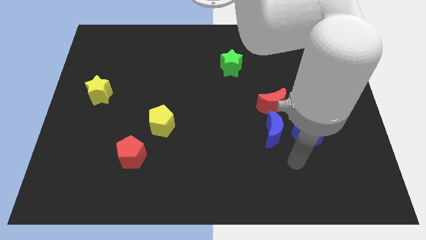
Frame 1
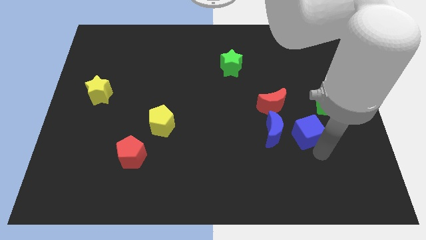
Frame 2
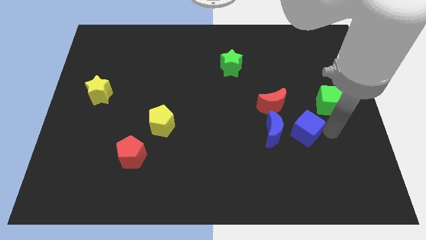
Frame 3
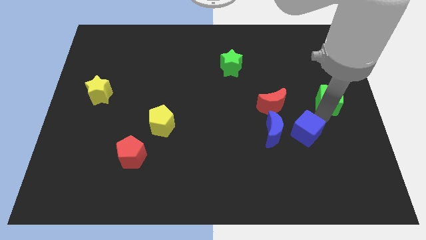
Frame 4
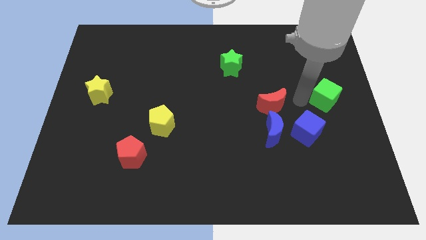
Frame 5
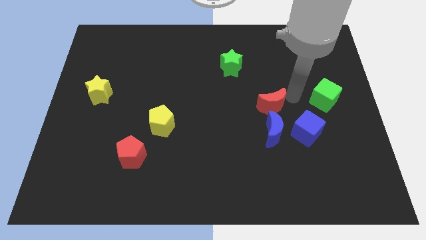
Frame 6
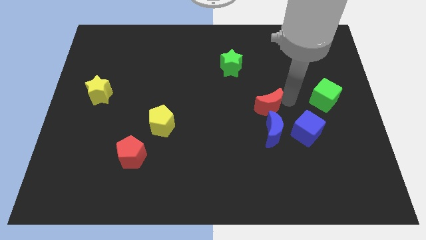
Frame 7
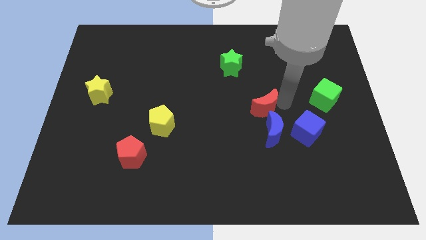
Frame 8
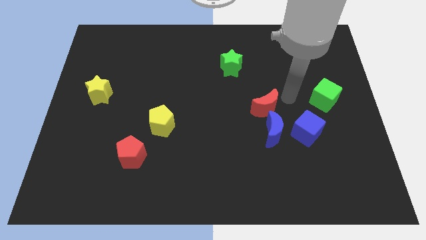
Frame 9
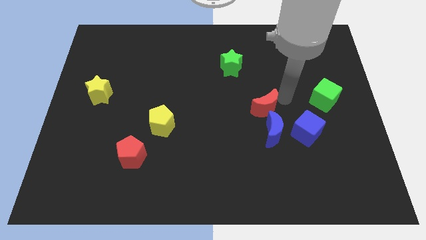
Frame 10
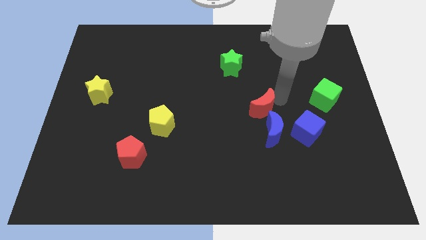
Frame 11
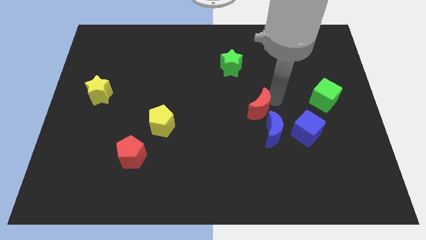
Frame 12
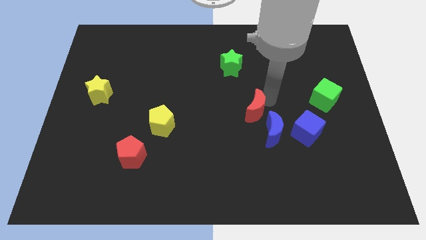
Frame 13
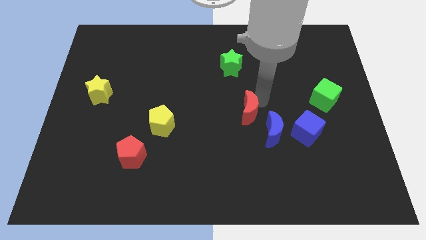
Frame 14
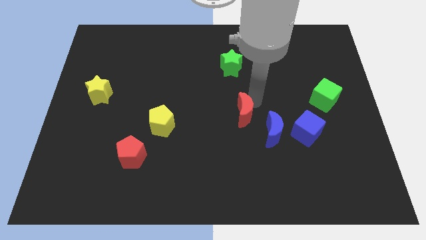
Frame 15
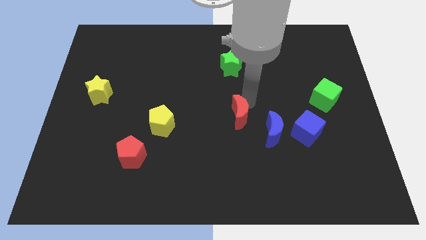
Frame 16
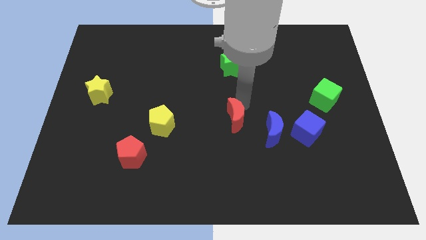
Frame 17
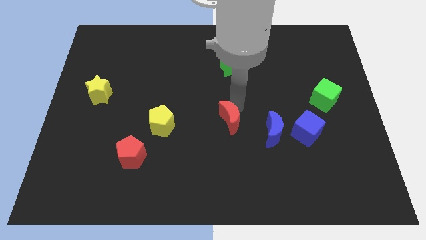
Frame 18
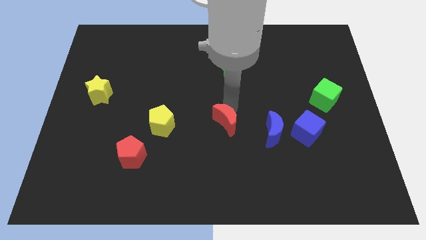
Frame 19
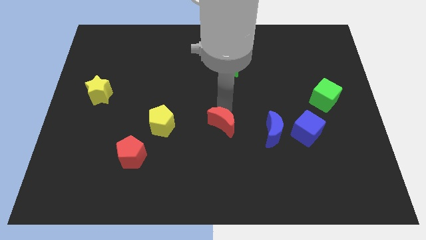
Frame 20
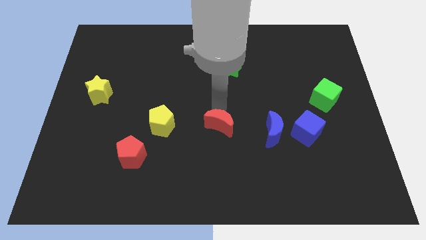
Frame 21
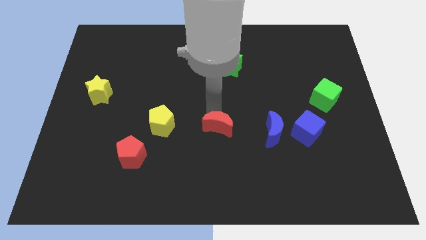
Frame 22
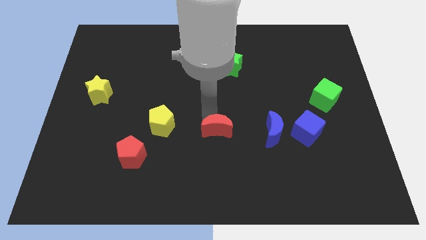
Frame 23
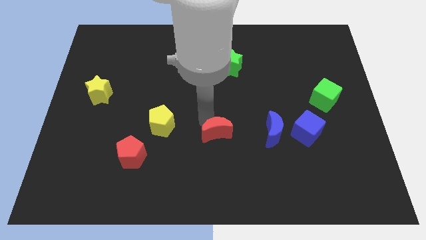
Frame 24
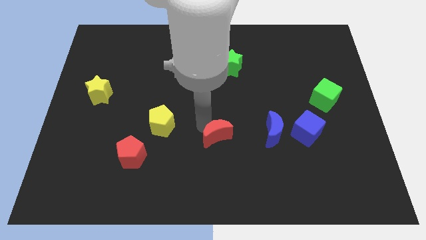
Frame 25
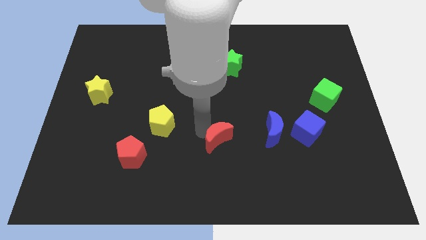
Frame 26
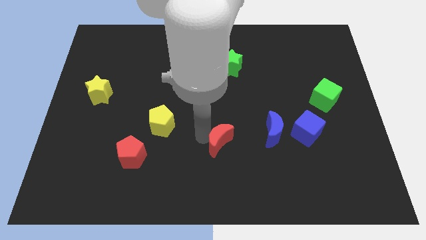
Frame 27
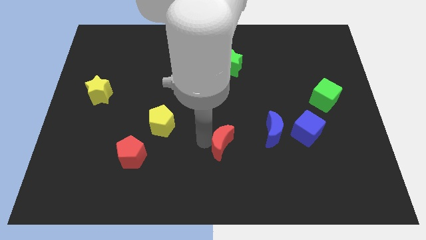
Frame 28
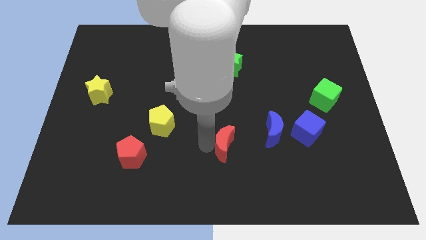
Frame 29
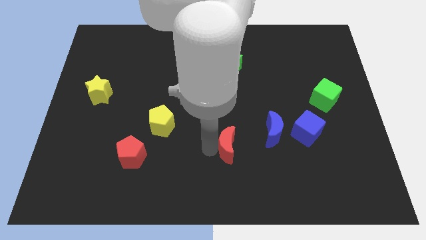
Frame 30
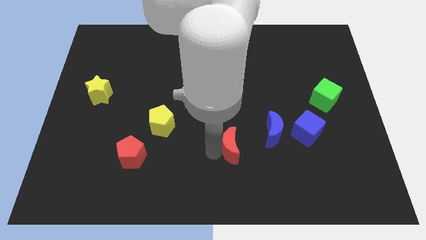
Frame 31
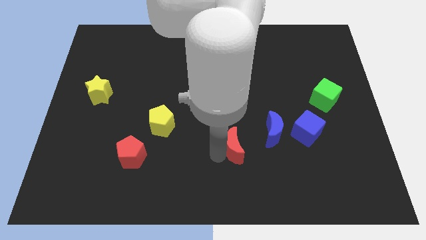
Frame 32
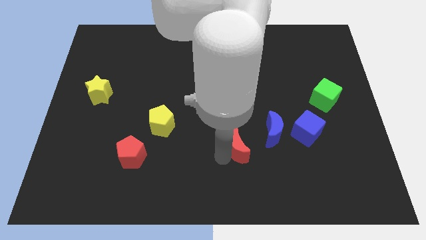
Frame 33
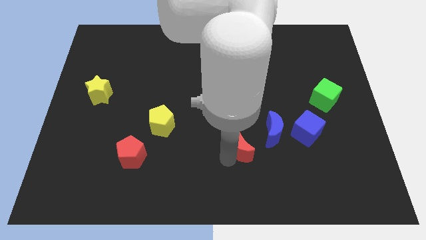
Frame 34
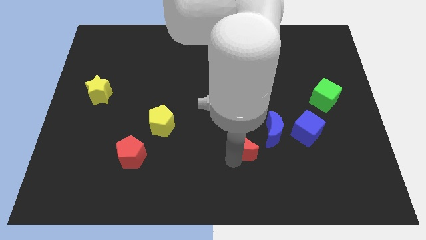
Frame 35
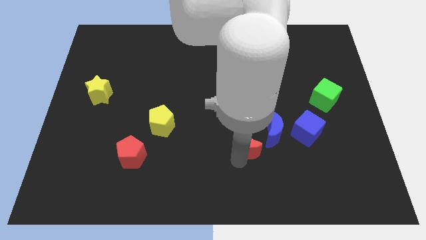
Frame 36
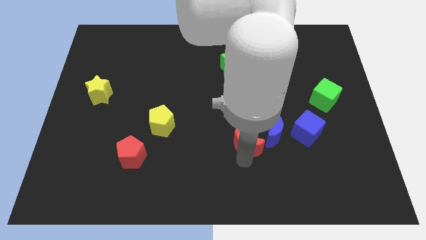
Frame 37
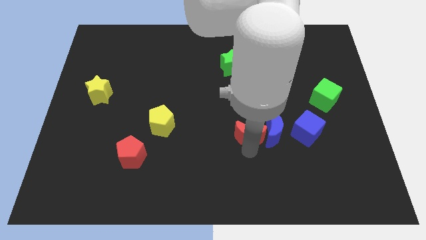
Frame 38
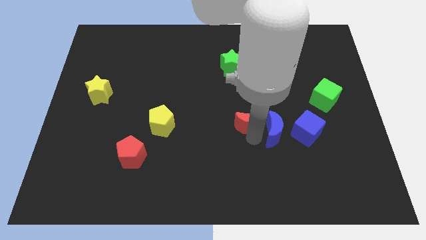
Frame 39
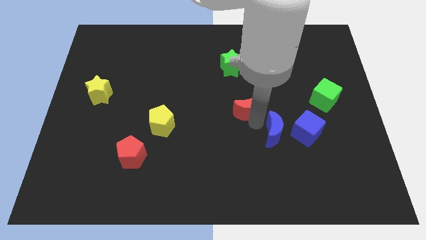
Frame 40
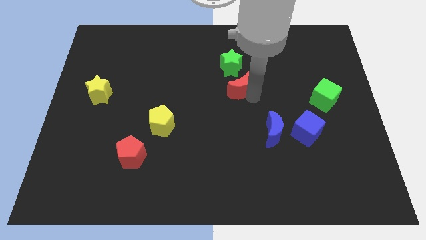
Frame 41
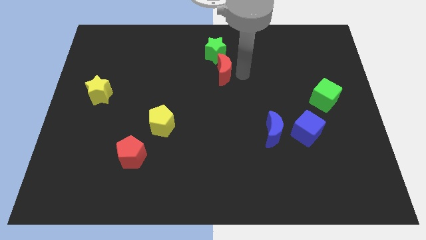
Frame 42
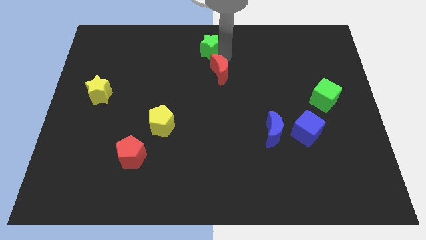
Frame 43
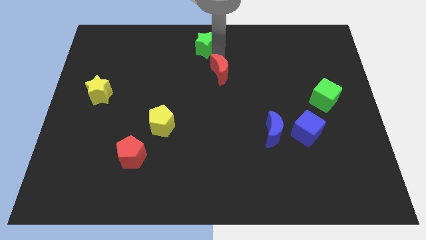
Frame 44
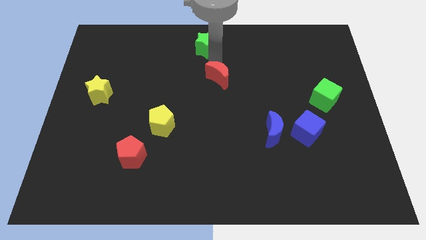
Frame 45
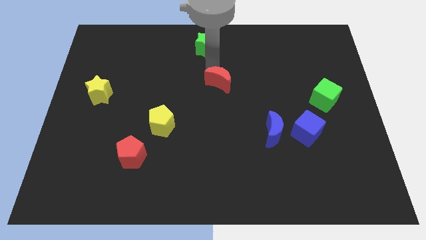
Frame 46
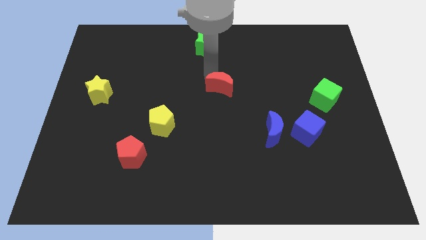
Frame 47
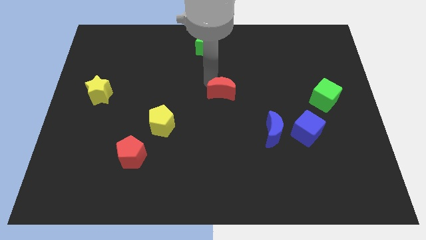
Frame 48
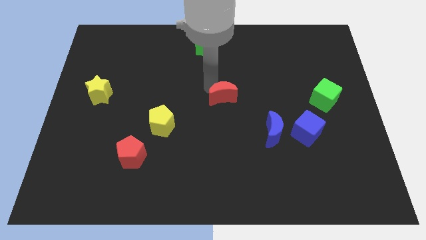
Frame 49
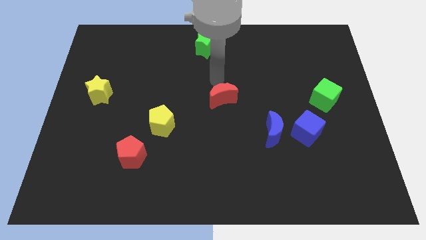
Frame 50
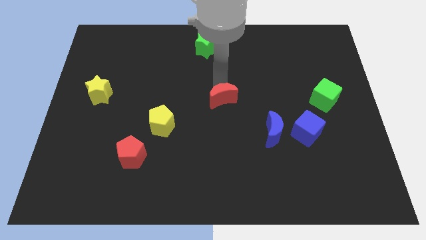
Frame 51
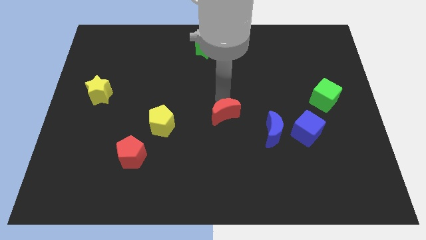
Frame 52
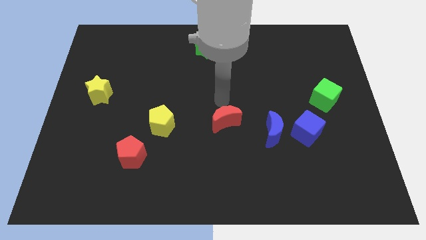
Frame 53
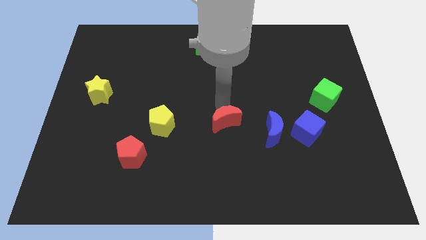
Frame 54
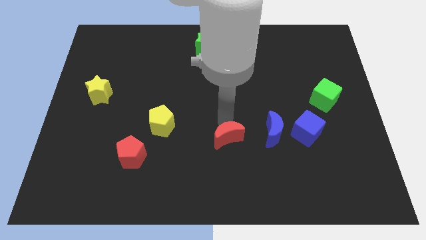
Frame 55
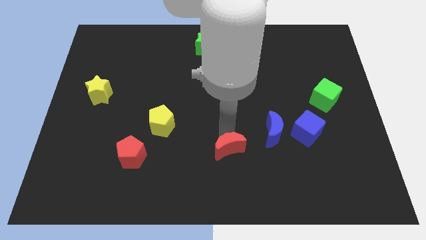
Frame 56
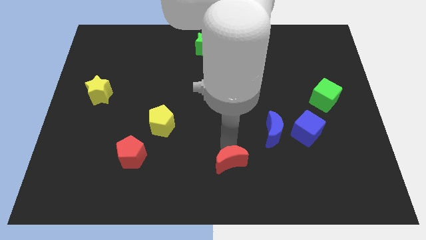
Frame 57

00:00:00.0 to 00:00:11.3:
slide the red moon to the bottom side

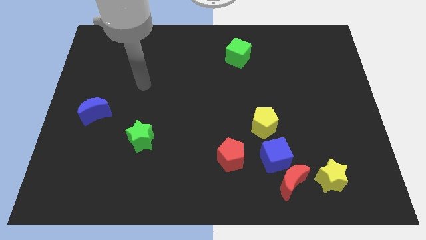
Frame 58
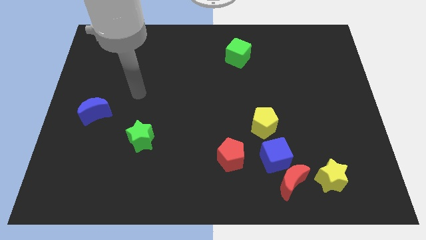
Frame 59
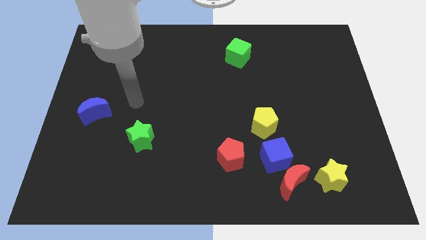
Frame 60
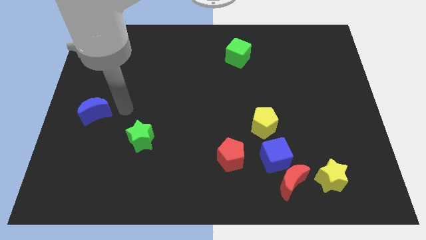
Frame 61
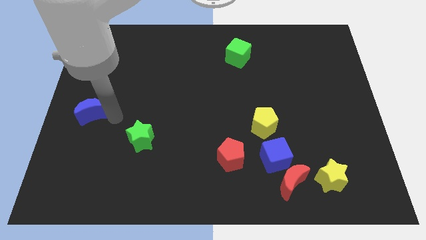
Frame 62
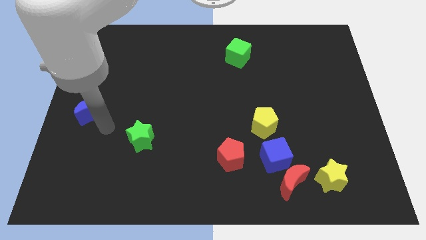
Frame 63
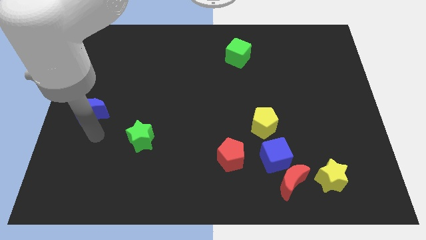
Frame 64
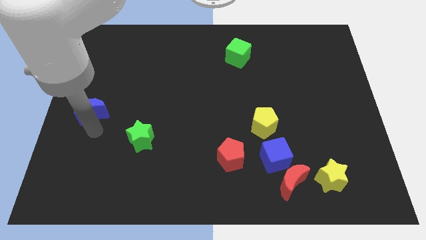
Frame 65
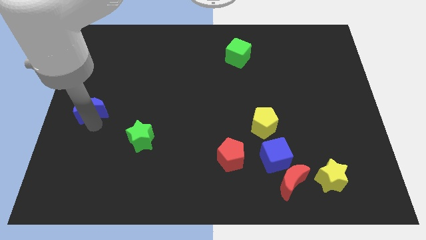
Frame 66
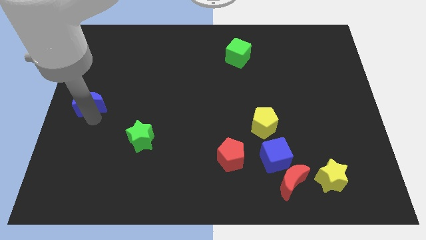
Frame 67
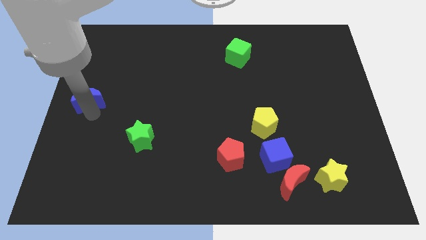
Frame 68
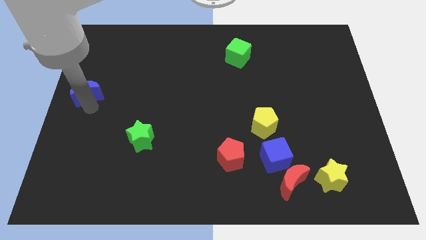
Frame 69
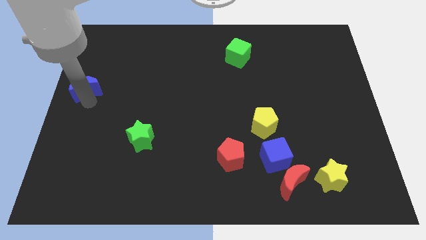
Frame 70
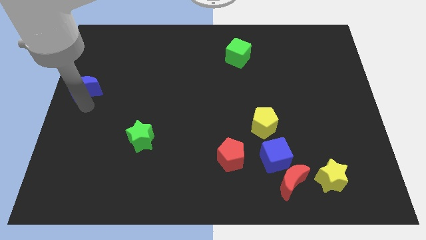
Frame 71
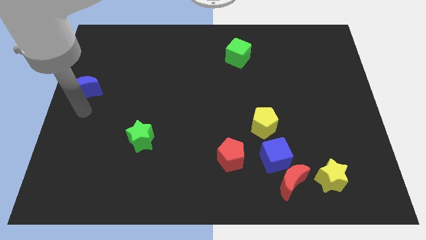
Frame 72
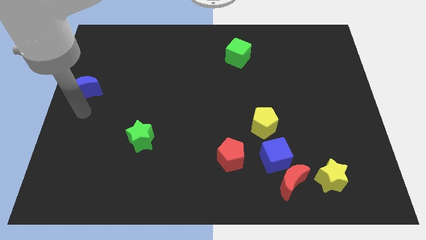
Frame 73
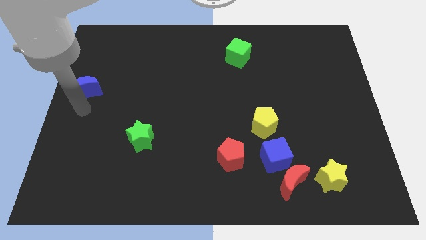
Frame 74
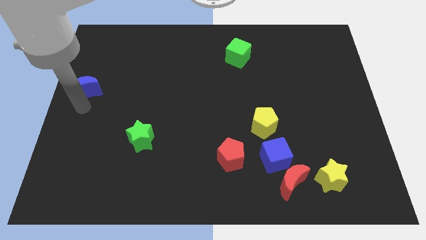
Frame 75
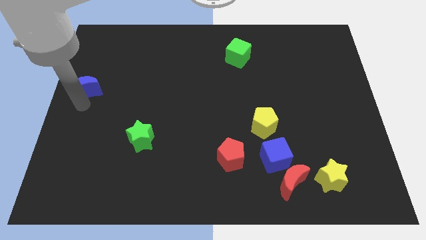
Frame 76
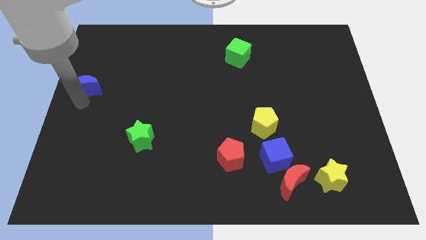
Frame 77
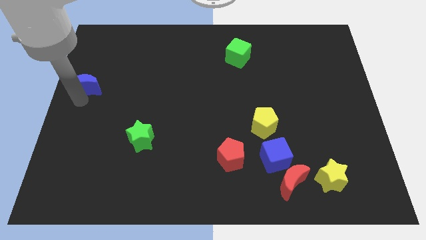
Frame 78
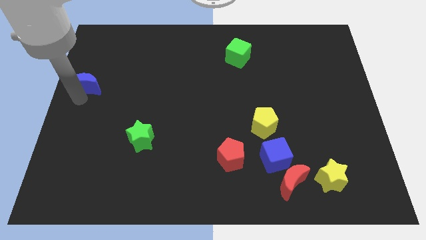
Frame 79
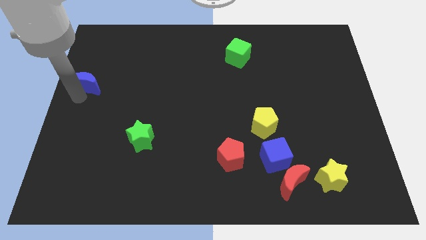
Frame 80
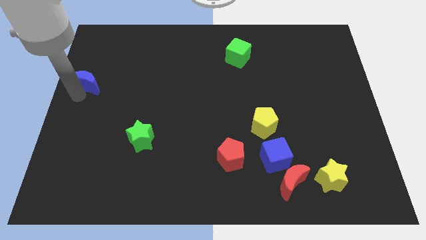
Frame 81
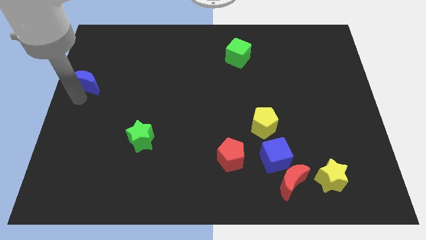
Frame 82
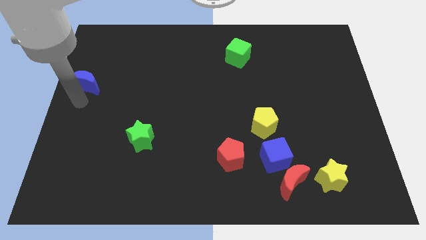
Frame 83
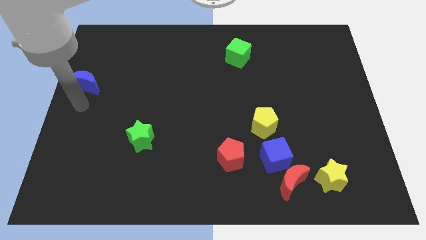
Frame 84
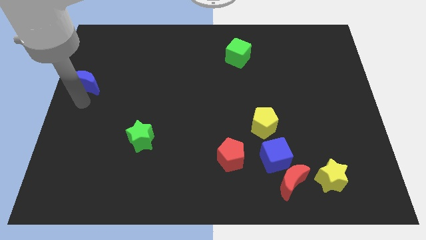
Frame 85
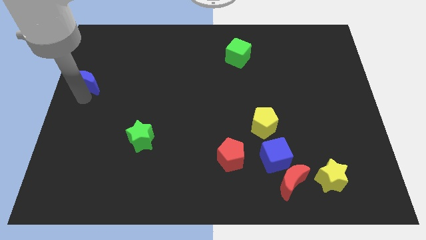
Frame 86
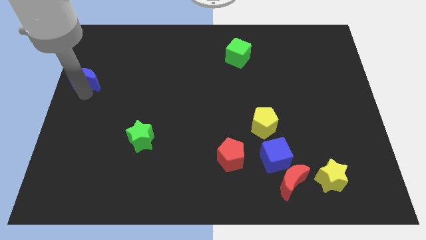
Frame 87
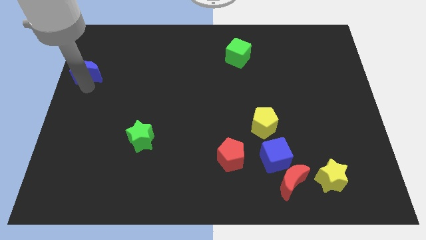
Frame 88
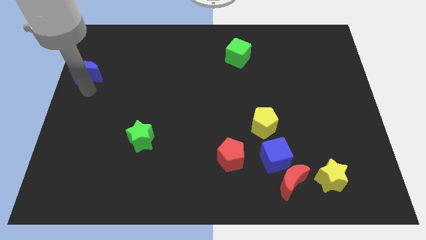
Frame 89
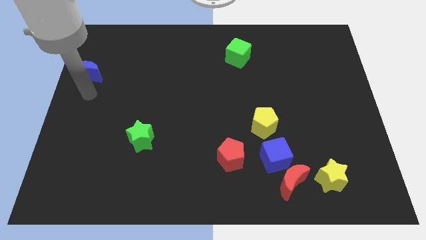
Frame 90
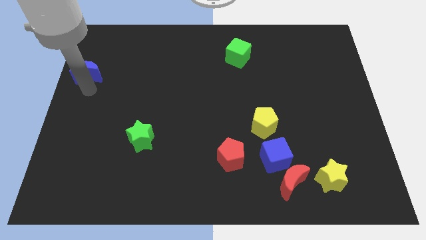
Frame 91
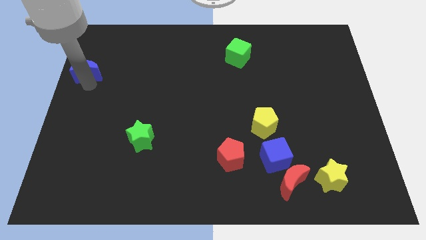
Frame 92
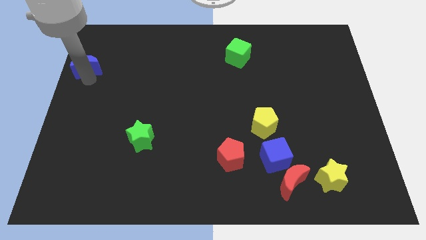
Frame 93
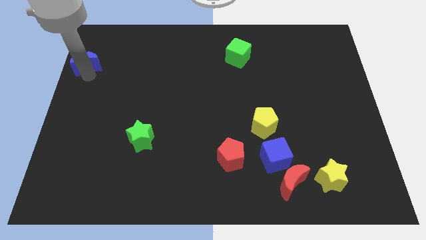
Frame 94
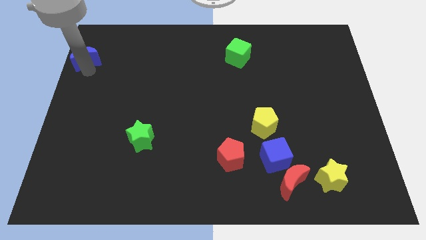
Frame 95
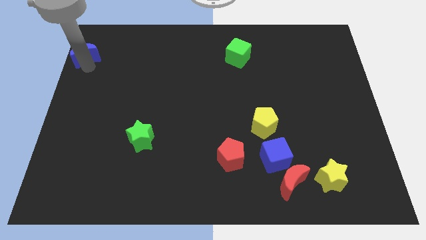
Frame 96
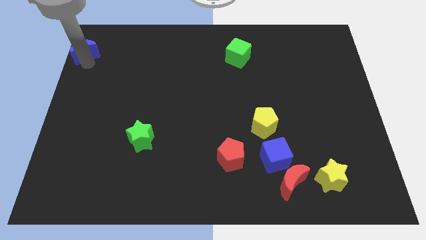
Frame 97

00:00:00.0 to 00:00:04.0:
put the blue moon to the top left
